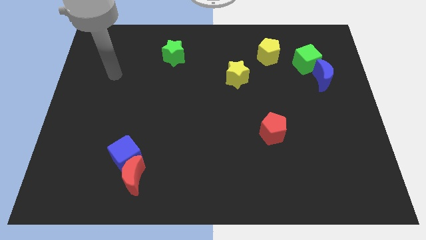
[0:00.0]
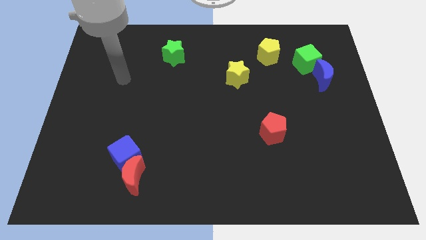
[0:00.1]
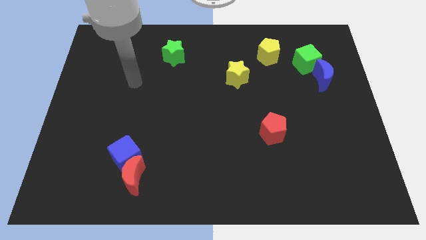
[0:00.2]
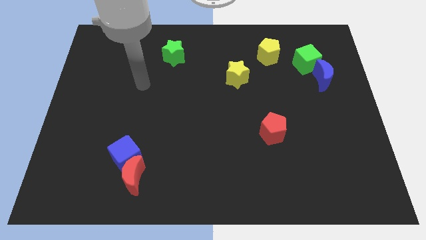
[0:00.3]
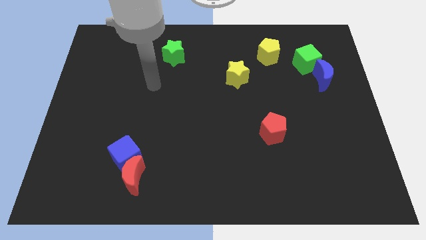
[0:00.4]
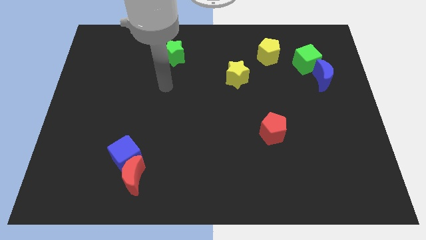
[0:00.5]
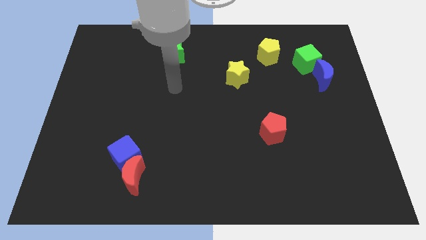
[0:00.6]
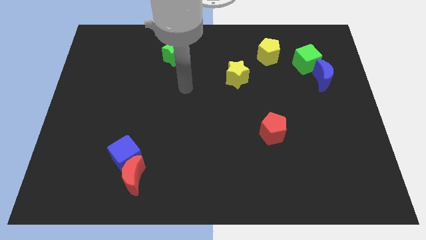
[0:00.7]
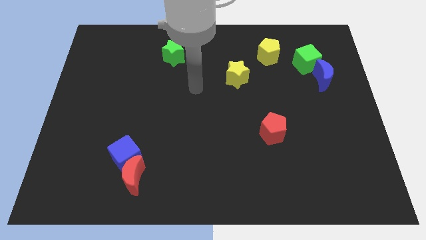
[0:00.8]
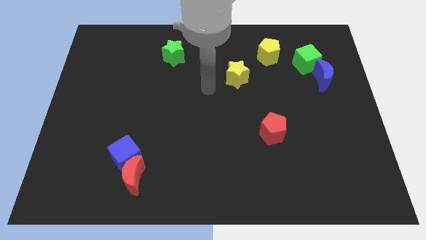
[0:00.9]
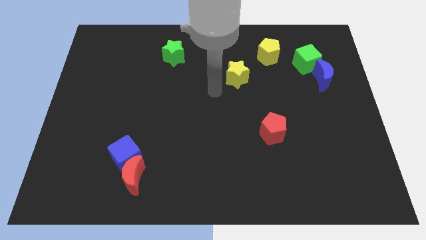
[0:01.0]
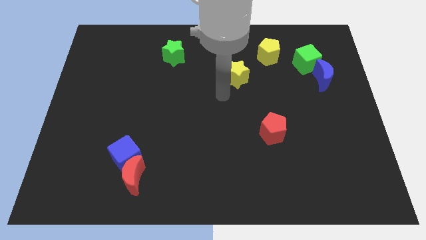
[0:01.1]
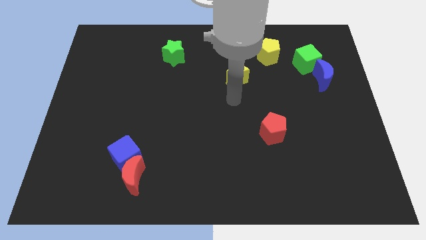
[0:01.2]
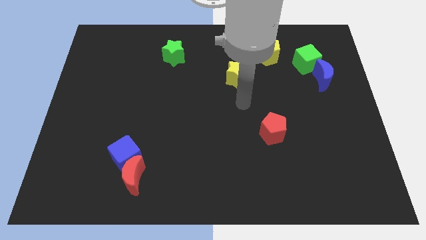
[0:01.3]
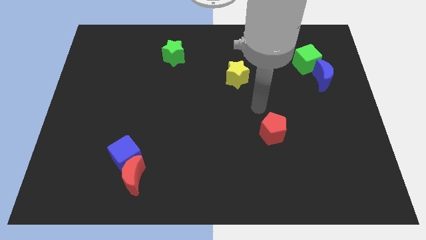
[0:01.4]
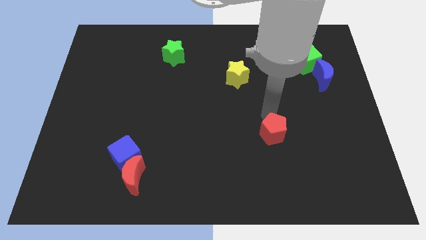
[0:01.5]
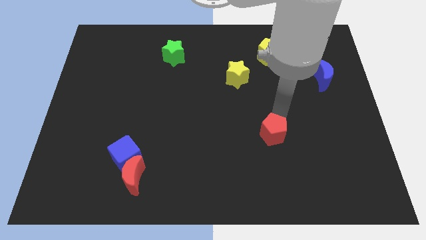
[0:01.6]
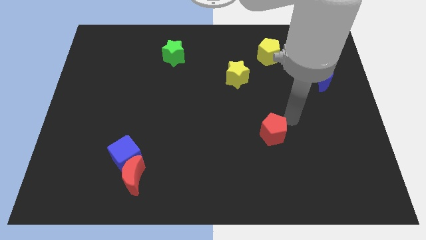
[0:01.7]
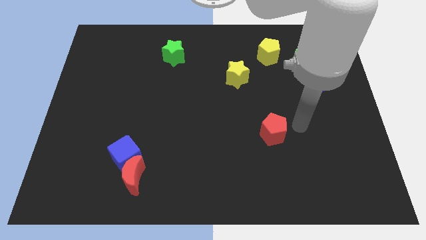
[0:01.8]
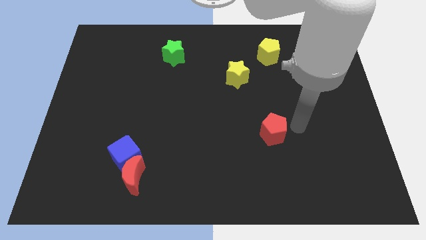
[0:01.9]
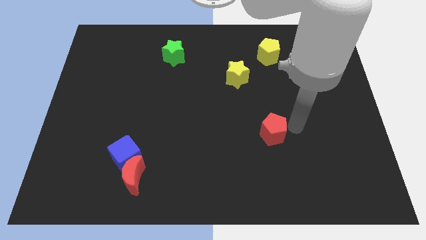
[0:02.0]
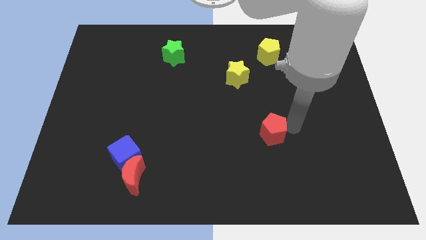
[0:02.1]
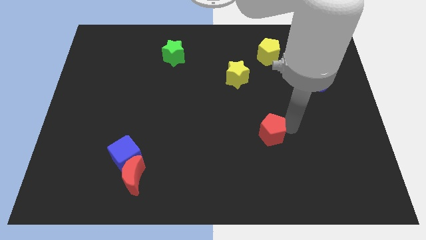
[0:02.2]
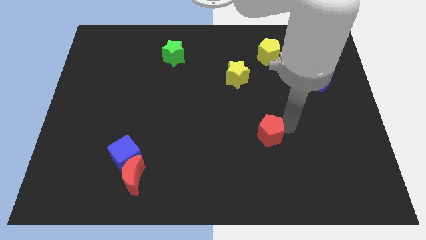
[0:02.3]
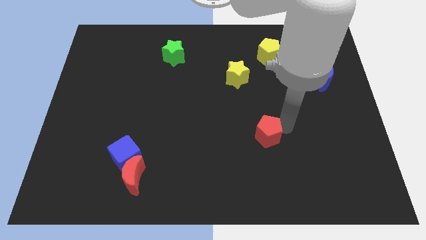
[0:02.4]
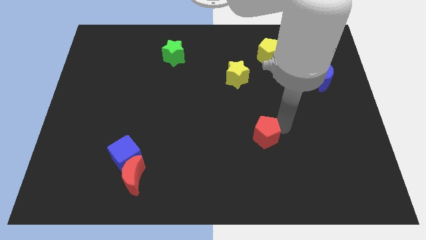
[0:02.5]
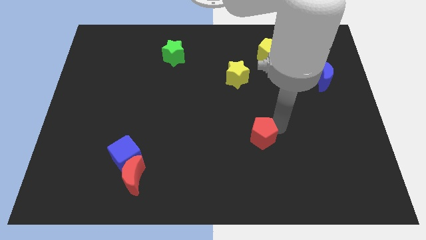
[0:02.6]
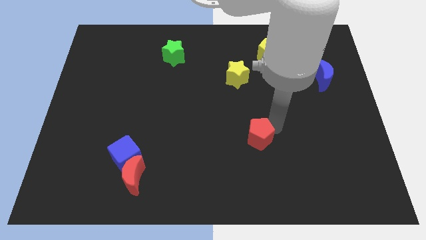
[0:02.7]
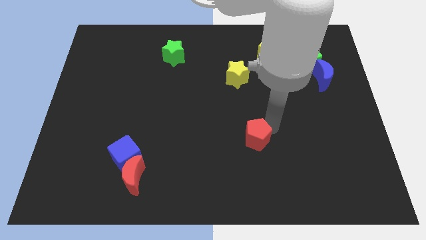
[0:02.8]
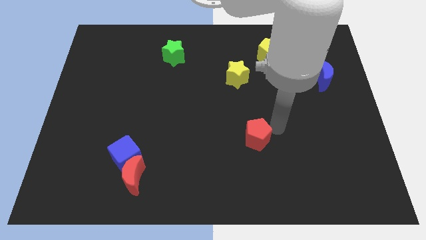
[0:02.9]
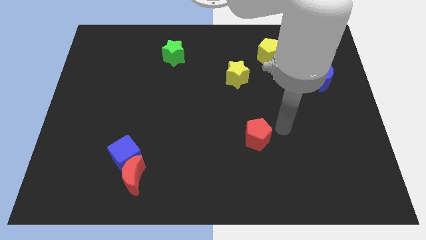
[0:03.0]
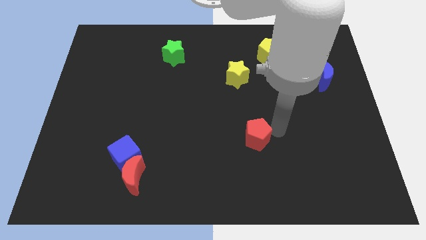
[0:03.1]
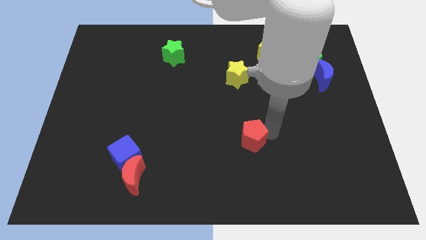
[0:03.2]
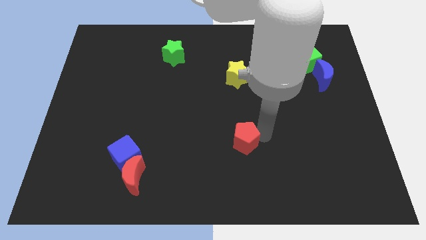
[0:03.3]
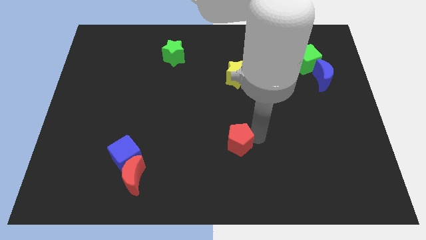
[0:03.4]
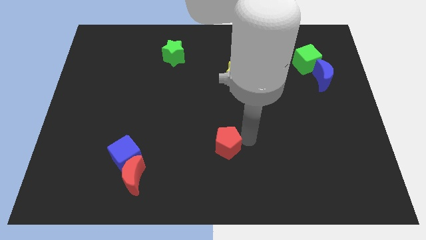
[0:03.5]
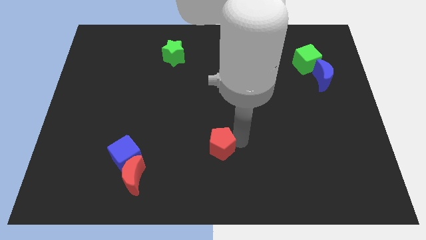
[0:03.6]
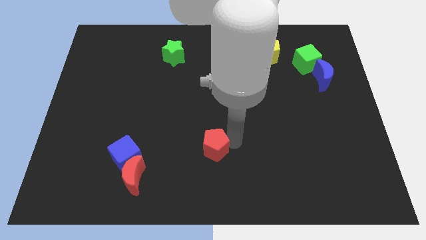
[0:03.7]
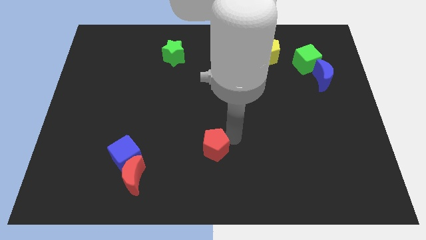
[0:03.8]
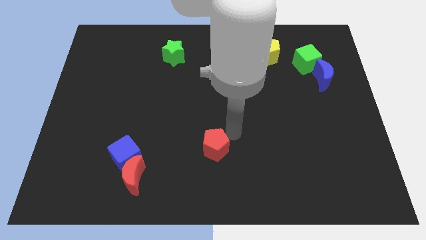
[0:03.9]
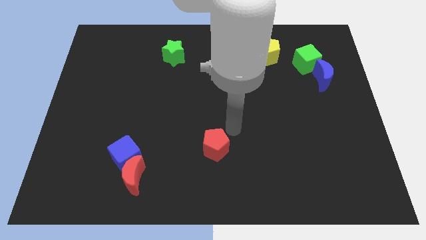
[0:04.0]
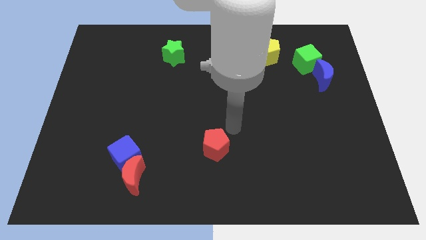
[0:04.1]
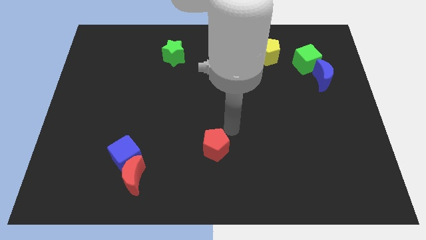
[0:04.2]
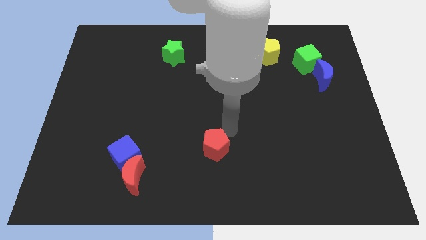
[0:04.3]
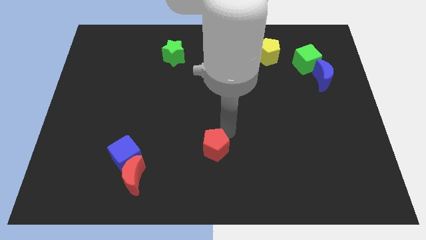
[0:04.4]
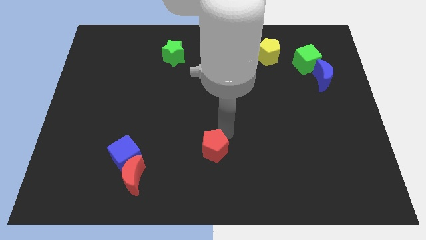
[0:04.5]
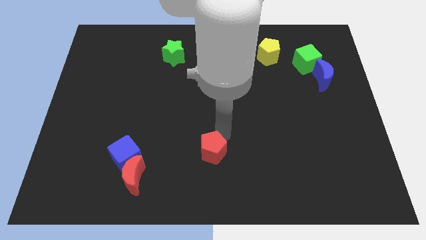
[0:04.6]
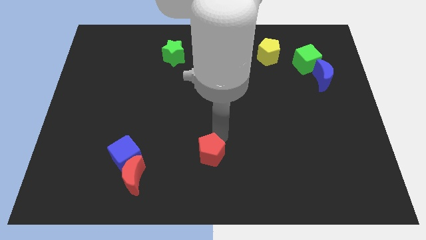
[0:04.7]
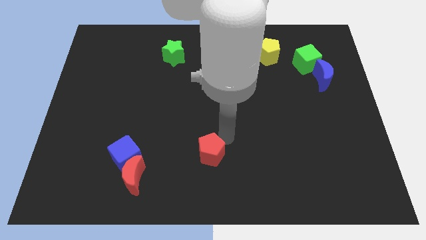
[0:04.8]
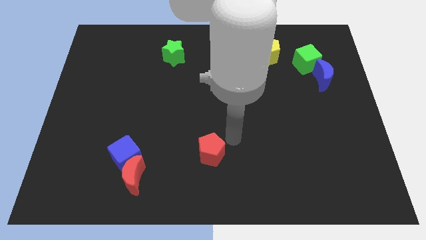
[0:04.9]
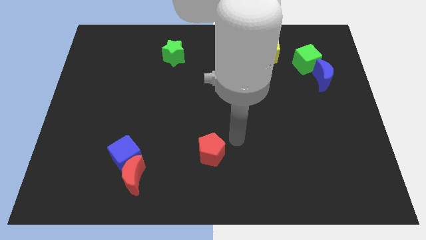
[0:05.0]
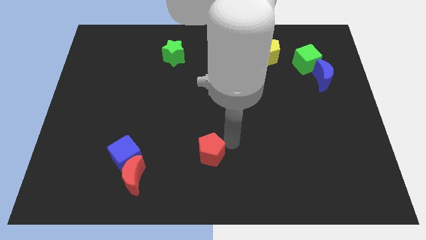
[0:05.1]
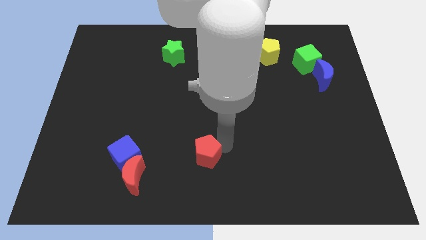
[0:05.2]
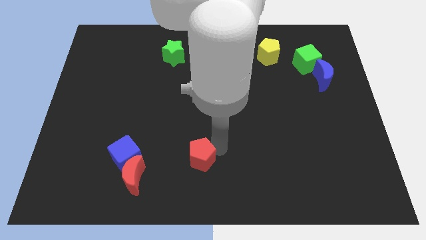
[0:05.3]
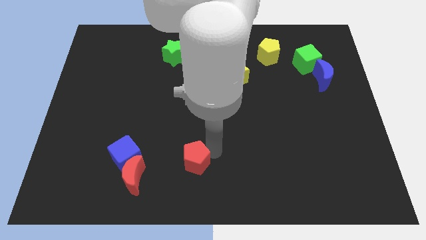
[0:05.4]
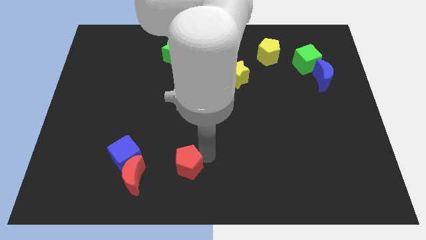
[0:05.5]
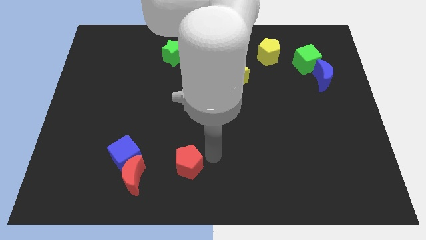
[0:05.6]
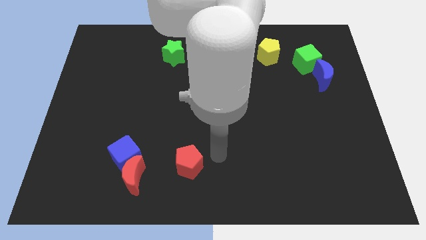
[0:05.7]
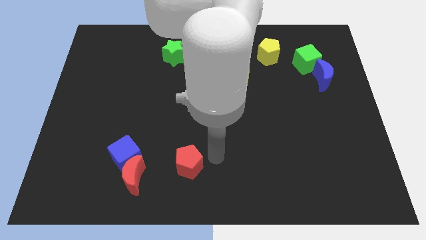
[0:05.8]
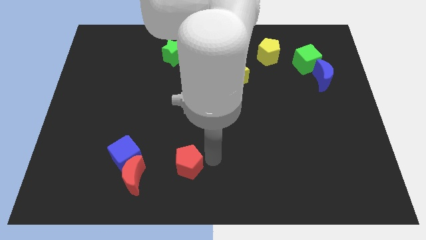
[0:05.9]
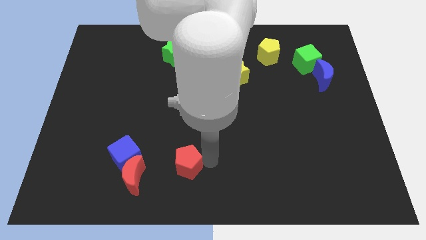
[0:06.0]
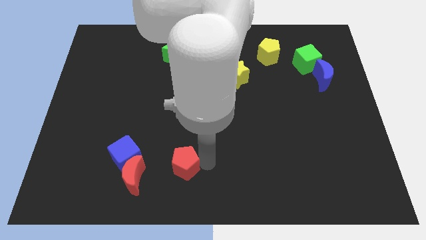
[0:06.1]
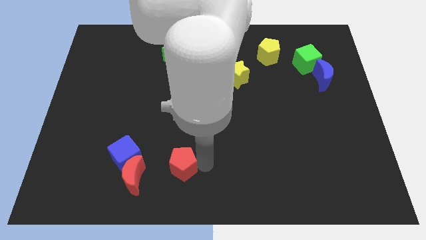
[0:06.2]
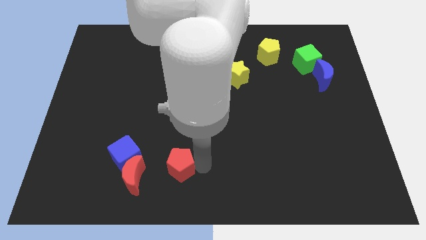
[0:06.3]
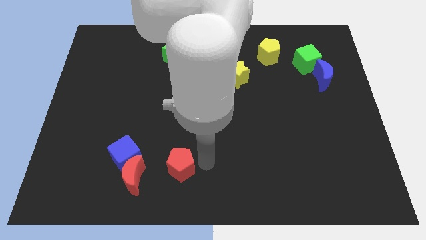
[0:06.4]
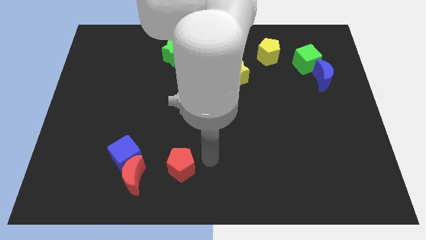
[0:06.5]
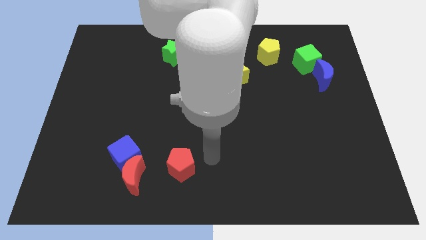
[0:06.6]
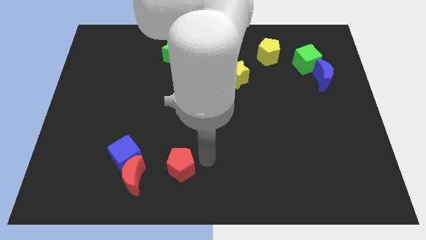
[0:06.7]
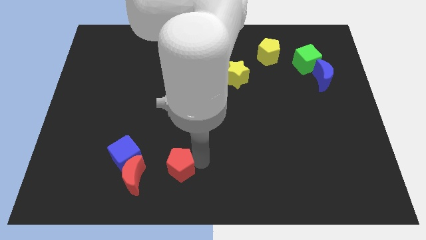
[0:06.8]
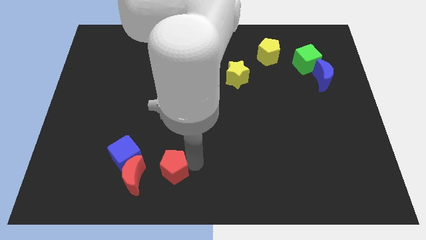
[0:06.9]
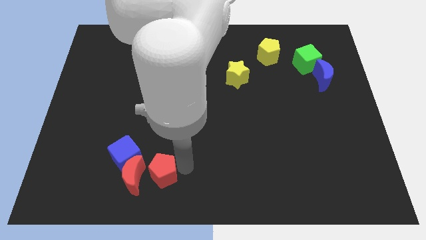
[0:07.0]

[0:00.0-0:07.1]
slide the red pentagon towards the red moon
